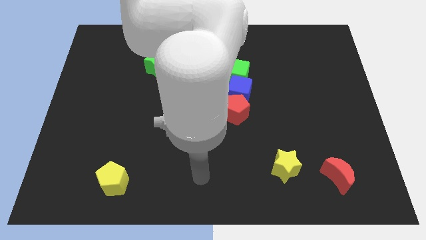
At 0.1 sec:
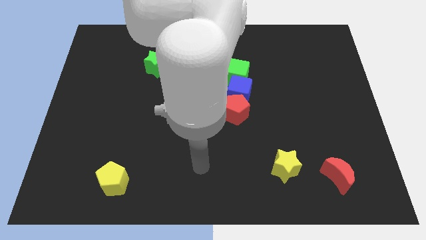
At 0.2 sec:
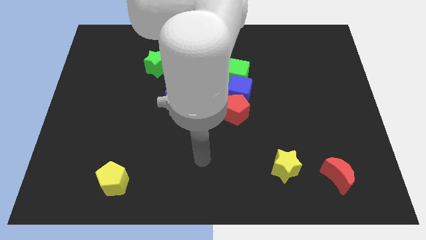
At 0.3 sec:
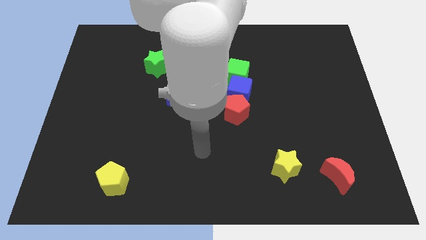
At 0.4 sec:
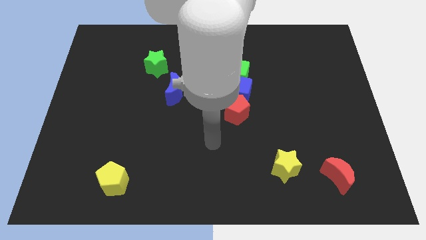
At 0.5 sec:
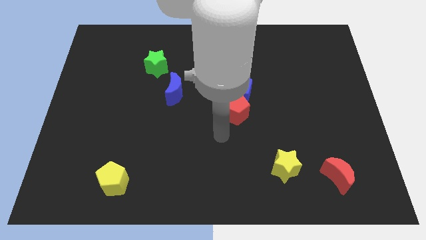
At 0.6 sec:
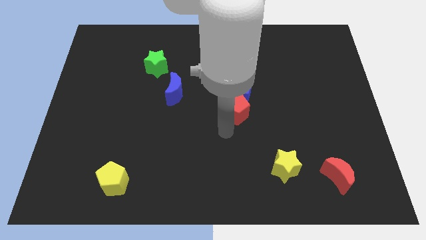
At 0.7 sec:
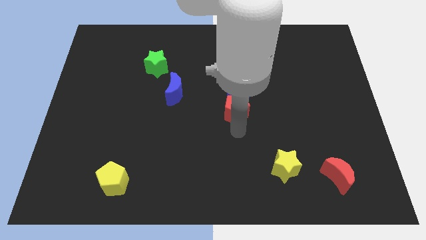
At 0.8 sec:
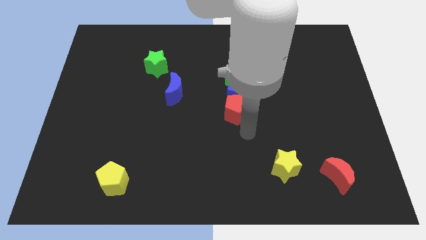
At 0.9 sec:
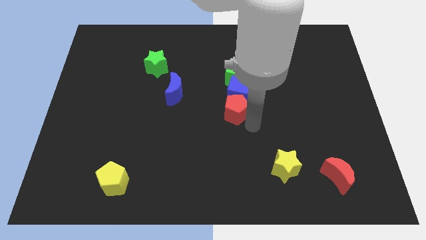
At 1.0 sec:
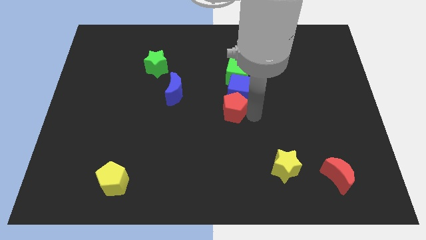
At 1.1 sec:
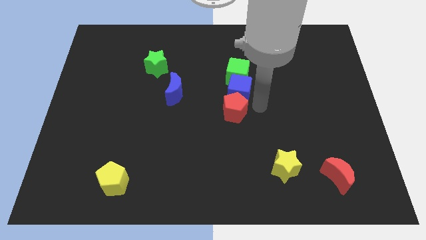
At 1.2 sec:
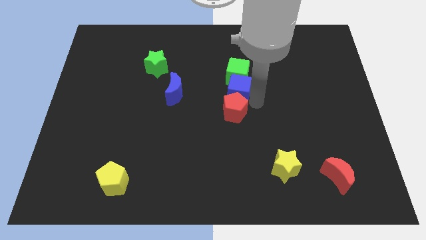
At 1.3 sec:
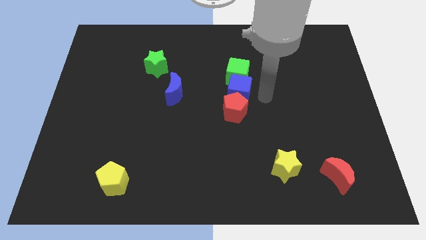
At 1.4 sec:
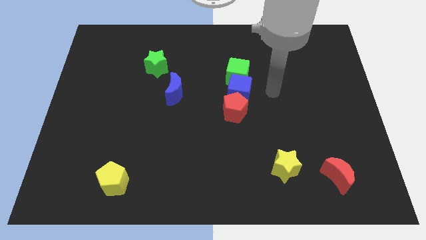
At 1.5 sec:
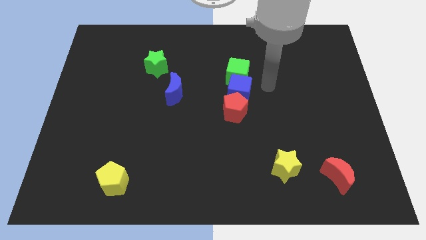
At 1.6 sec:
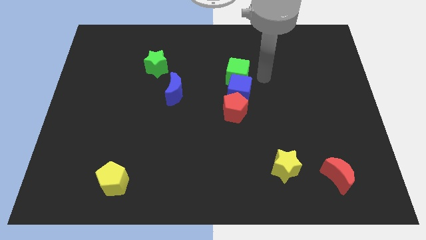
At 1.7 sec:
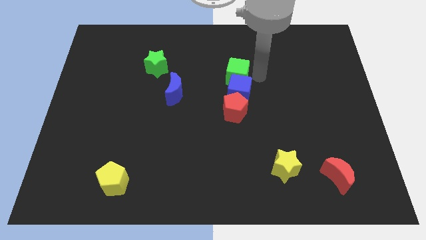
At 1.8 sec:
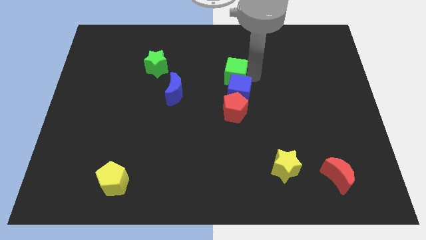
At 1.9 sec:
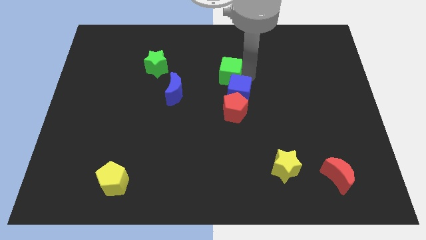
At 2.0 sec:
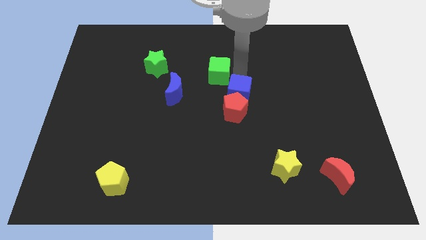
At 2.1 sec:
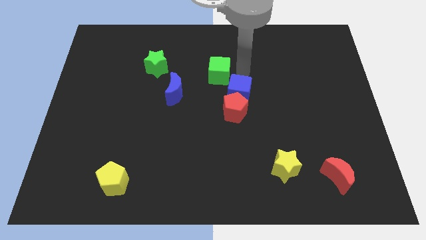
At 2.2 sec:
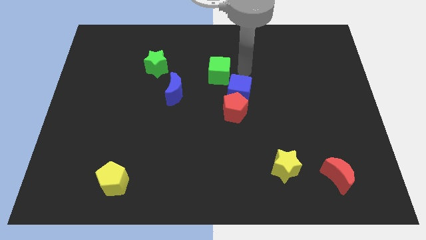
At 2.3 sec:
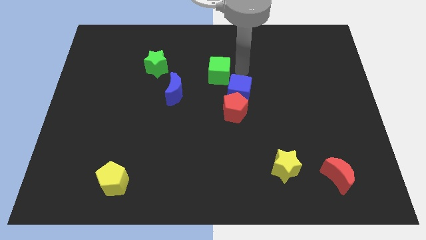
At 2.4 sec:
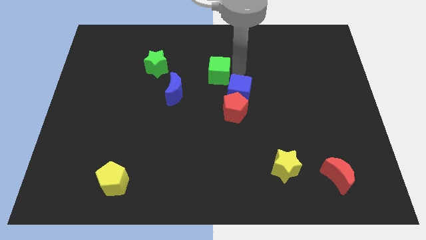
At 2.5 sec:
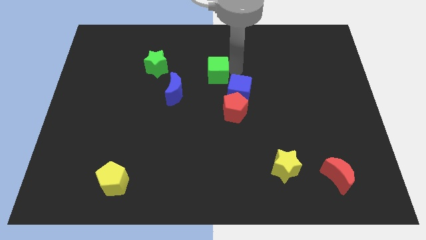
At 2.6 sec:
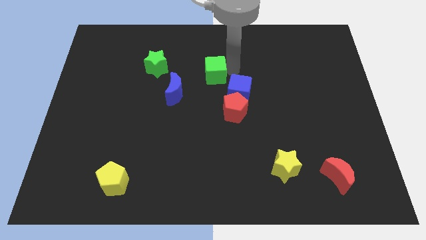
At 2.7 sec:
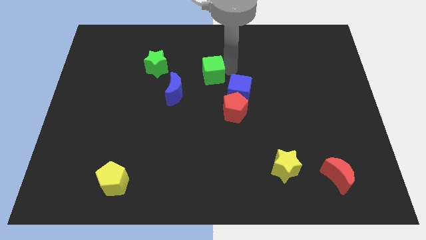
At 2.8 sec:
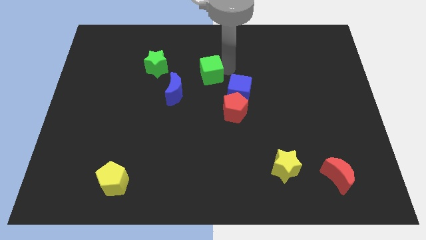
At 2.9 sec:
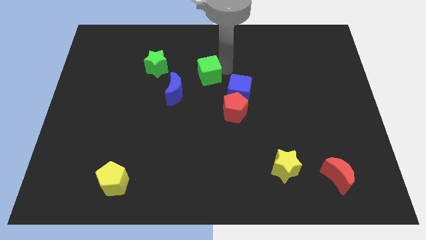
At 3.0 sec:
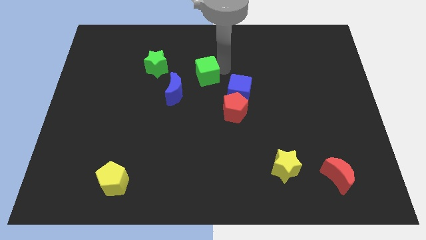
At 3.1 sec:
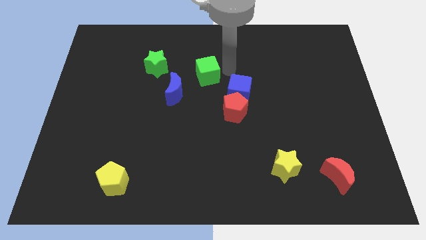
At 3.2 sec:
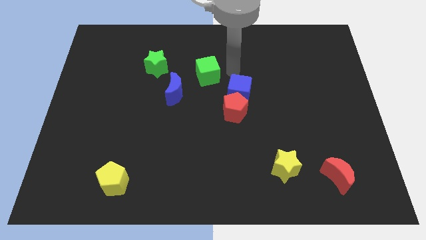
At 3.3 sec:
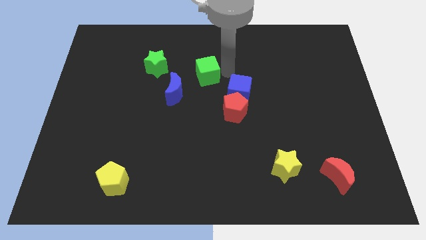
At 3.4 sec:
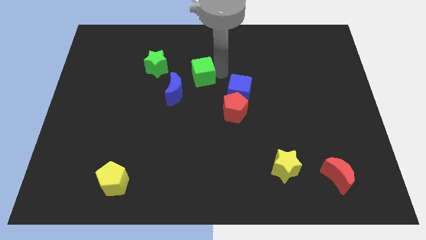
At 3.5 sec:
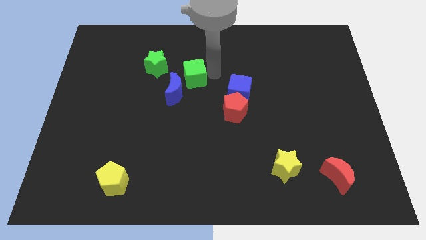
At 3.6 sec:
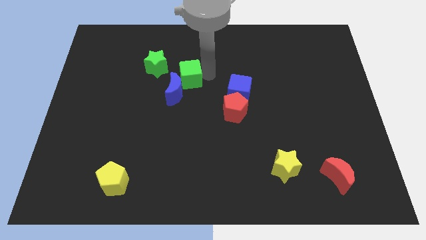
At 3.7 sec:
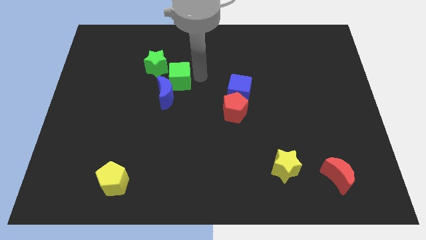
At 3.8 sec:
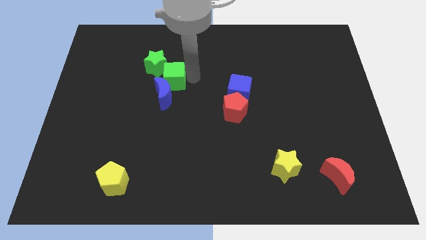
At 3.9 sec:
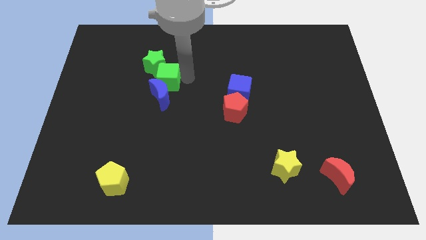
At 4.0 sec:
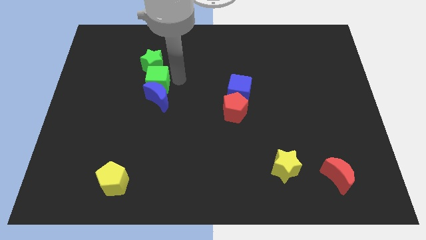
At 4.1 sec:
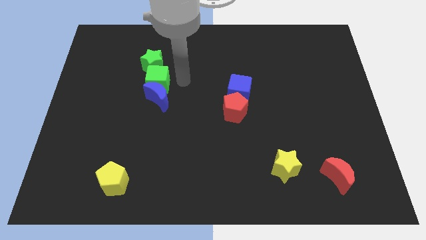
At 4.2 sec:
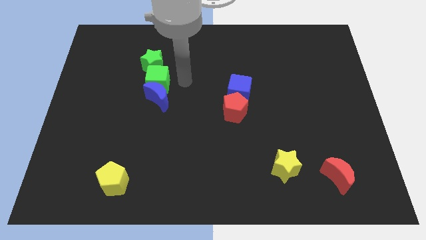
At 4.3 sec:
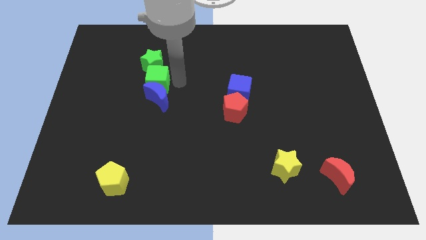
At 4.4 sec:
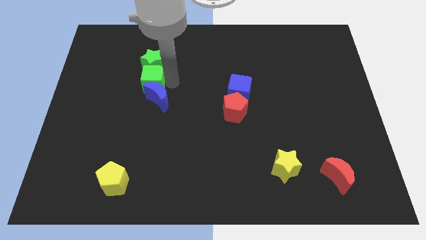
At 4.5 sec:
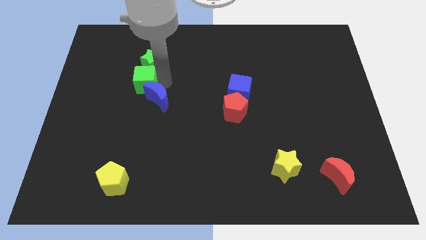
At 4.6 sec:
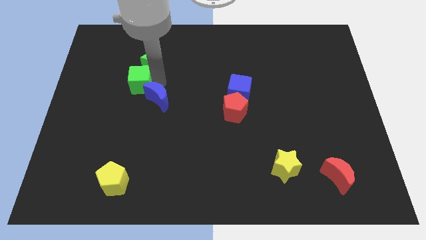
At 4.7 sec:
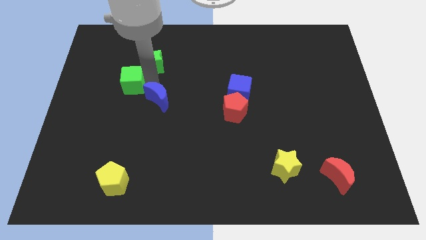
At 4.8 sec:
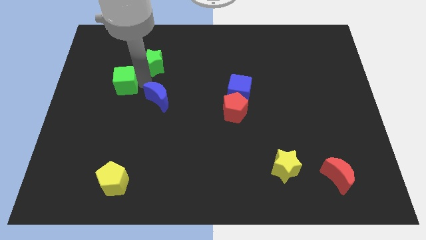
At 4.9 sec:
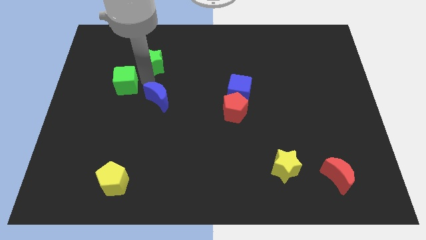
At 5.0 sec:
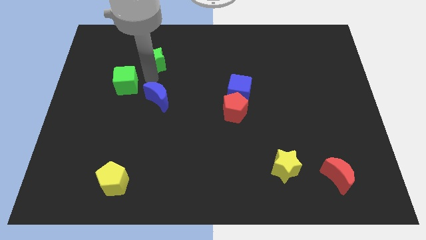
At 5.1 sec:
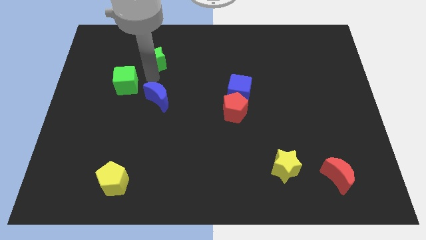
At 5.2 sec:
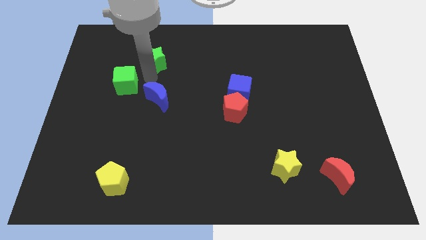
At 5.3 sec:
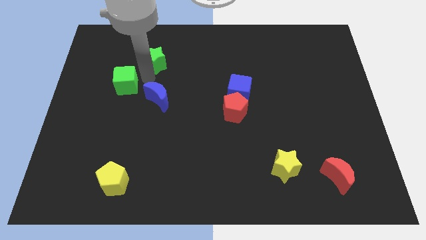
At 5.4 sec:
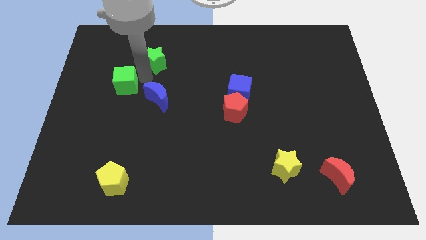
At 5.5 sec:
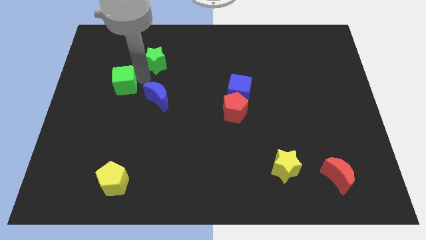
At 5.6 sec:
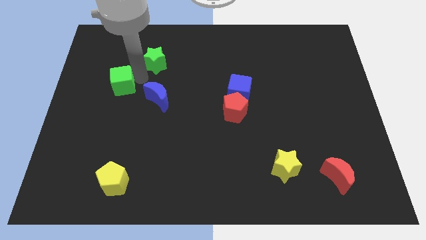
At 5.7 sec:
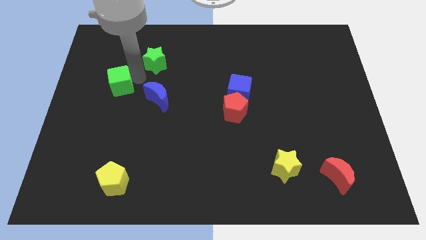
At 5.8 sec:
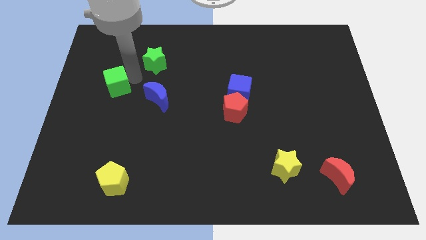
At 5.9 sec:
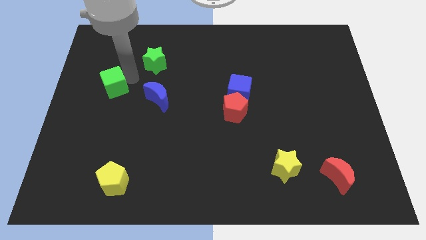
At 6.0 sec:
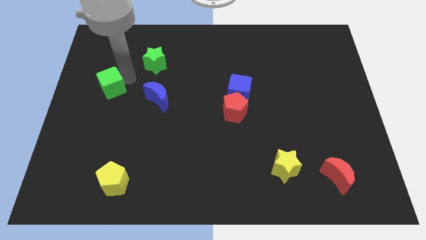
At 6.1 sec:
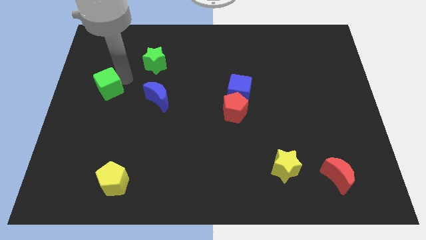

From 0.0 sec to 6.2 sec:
push the green cube to the center left
